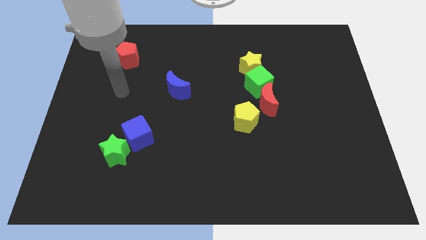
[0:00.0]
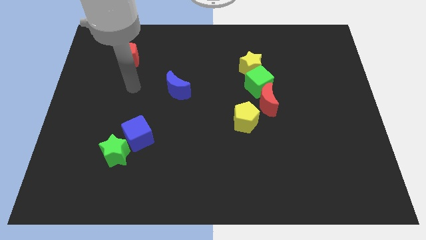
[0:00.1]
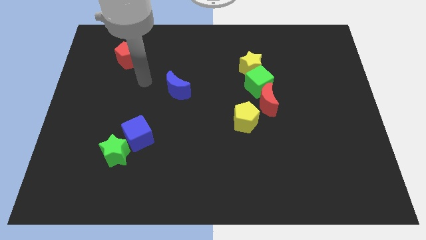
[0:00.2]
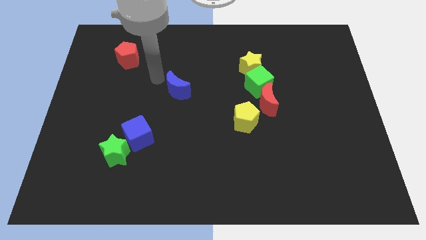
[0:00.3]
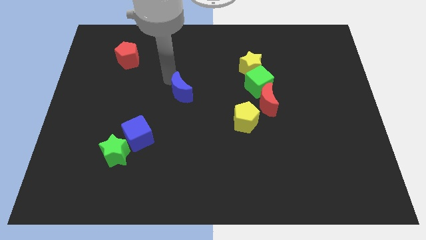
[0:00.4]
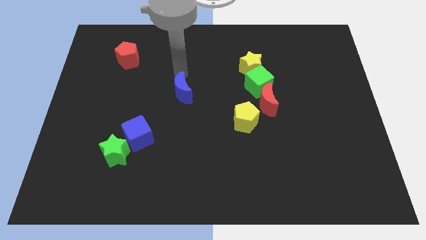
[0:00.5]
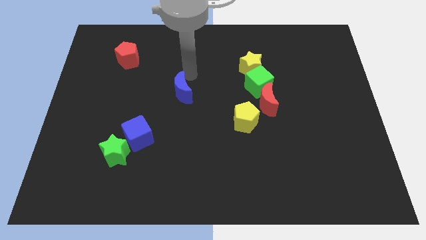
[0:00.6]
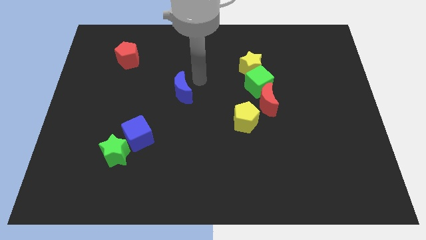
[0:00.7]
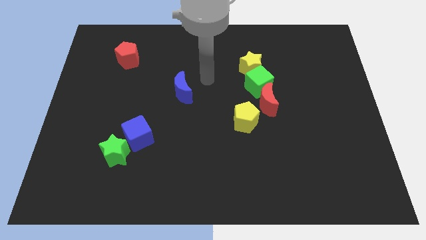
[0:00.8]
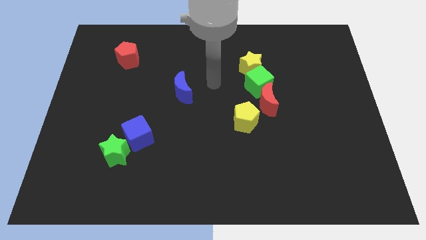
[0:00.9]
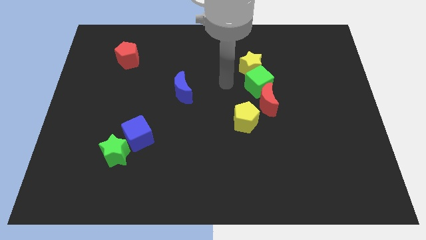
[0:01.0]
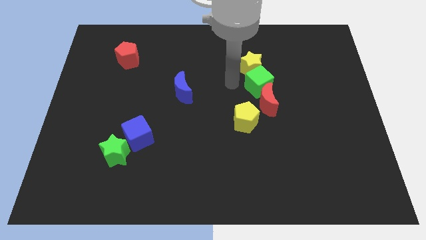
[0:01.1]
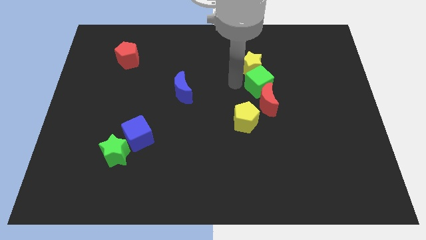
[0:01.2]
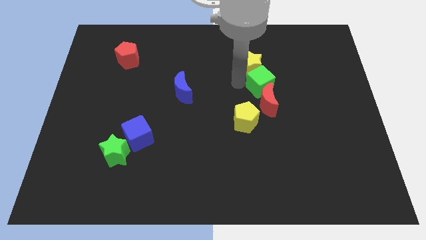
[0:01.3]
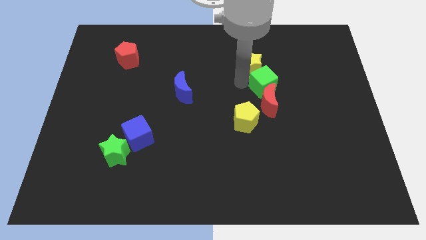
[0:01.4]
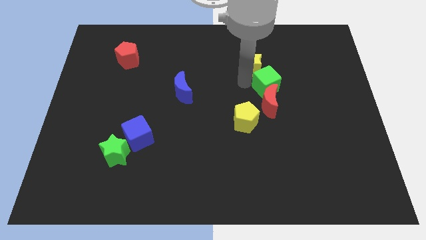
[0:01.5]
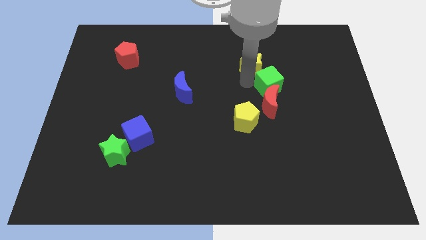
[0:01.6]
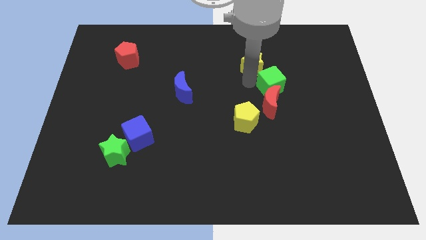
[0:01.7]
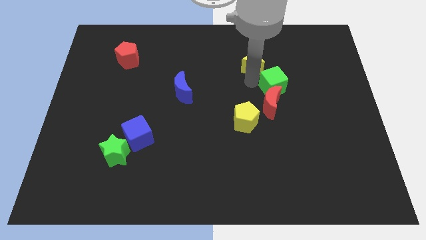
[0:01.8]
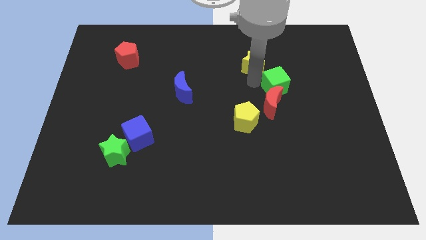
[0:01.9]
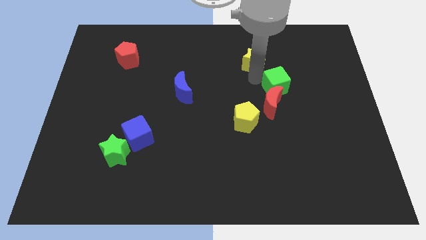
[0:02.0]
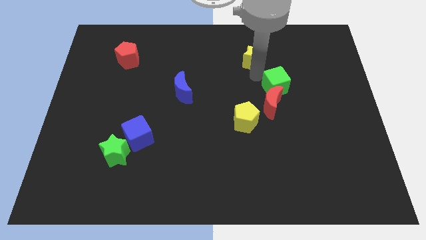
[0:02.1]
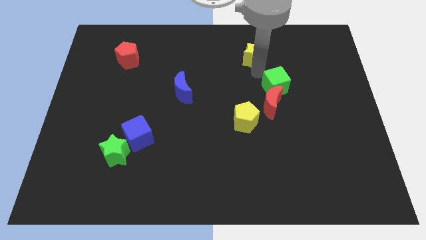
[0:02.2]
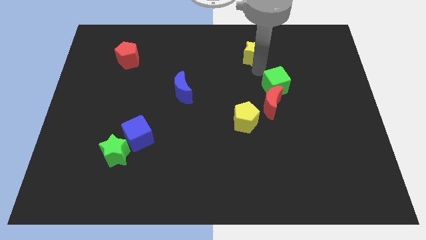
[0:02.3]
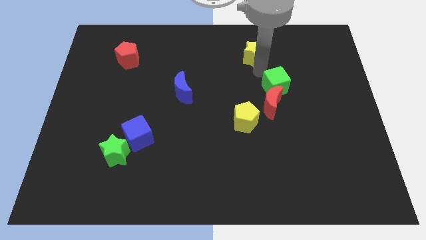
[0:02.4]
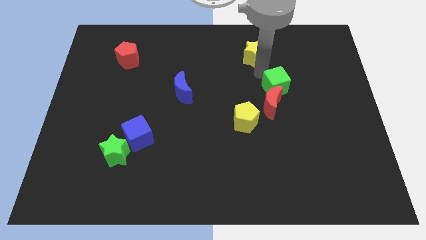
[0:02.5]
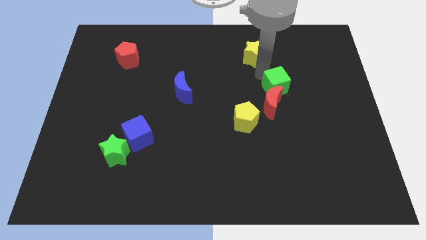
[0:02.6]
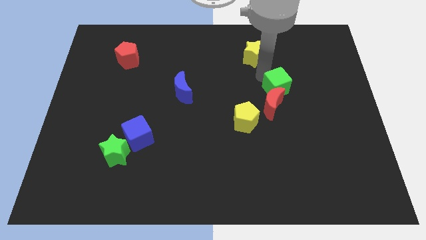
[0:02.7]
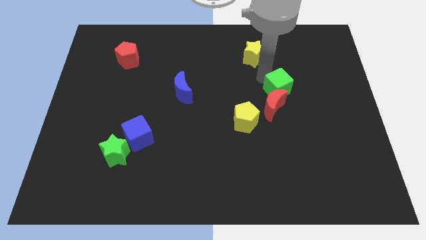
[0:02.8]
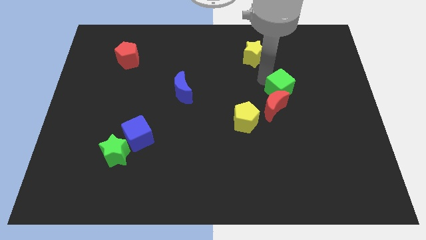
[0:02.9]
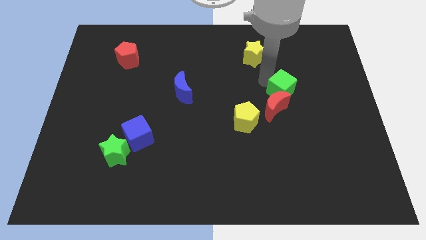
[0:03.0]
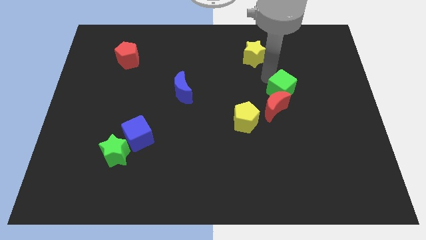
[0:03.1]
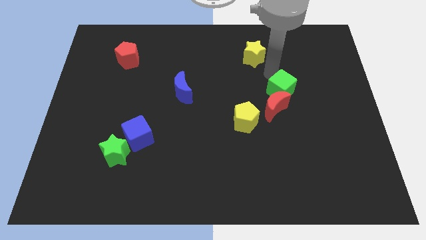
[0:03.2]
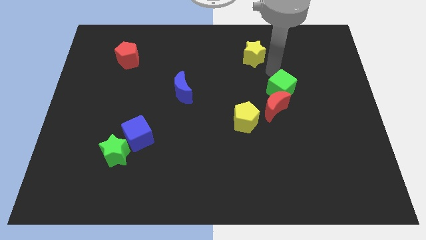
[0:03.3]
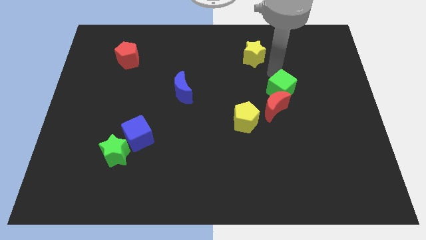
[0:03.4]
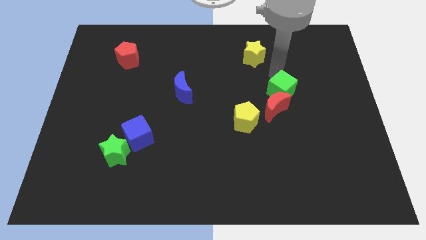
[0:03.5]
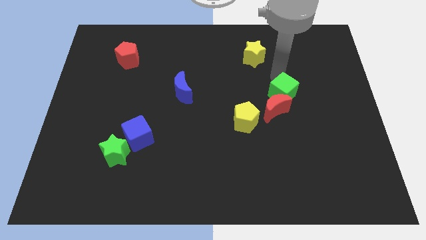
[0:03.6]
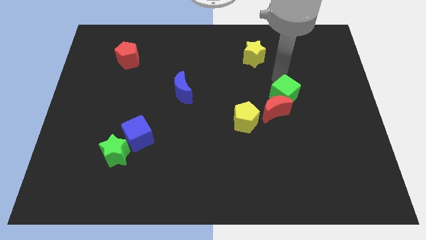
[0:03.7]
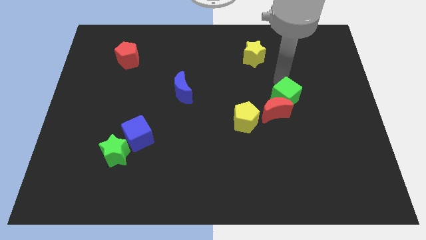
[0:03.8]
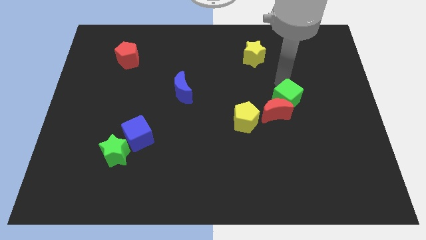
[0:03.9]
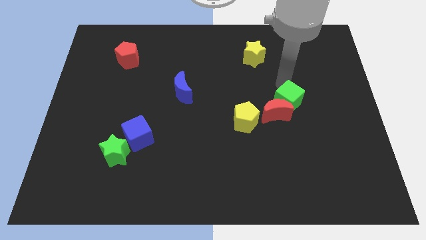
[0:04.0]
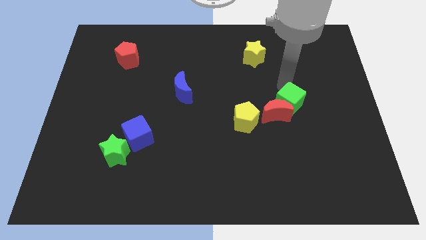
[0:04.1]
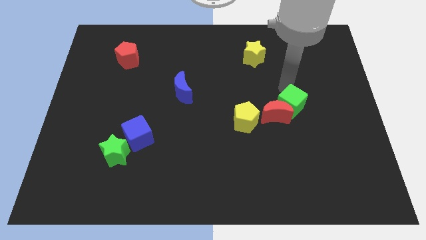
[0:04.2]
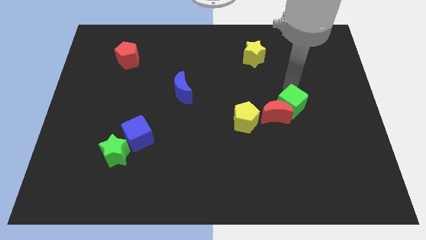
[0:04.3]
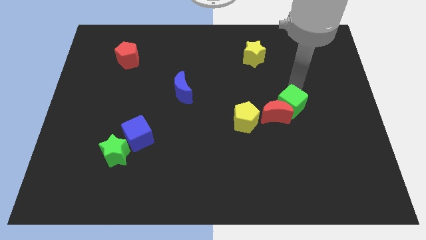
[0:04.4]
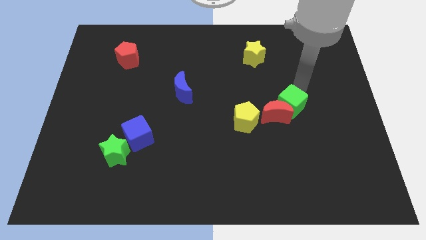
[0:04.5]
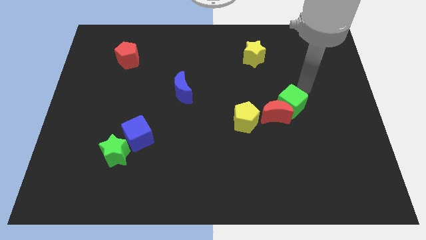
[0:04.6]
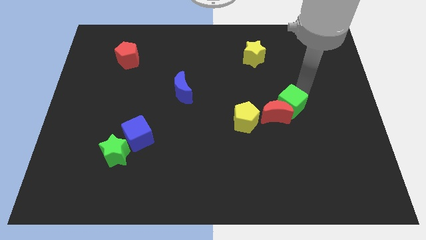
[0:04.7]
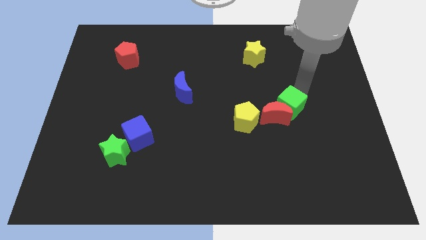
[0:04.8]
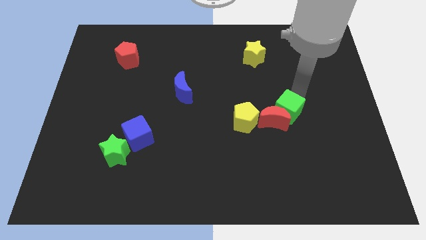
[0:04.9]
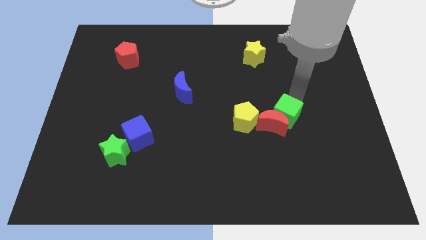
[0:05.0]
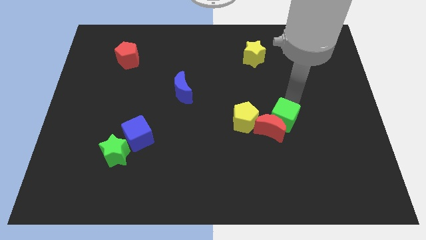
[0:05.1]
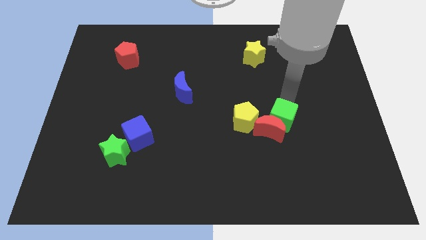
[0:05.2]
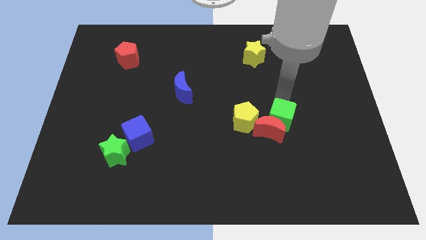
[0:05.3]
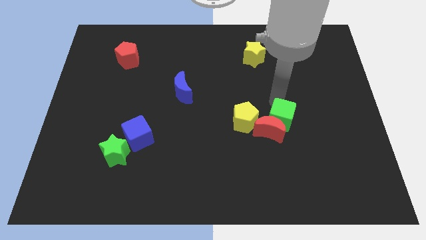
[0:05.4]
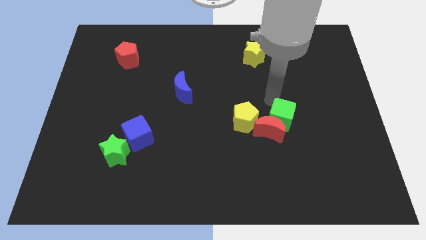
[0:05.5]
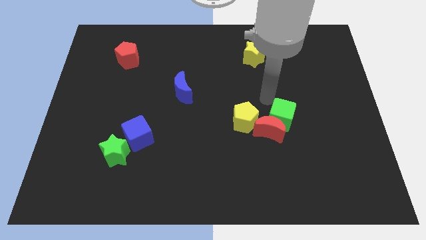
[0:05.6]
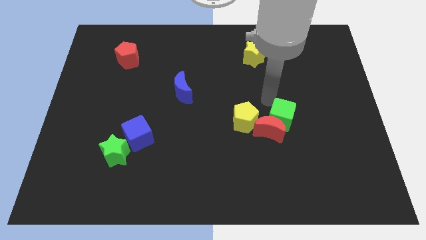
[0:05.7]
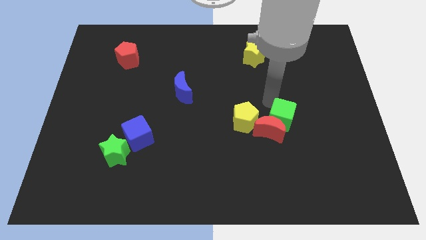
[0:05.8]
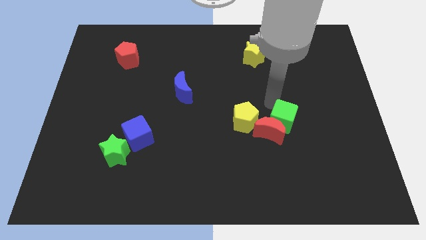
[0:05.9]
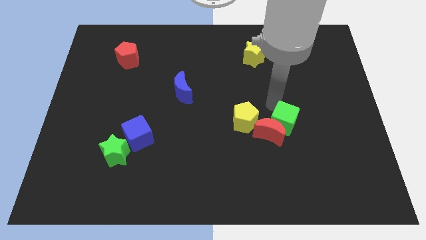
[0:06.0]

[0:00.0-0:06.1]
pull the green cube apart from the red moon and yellow star

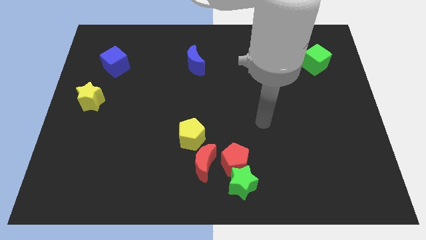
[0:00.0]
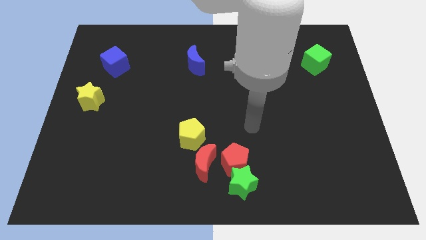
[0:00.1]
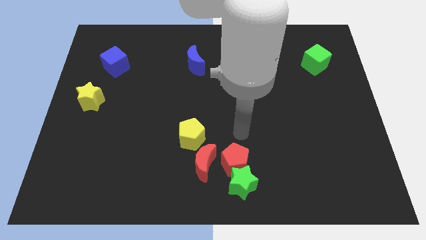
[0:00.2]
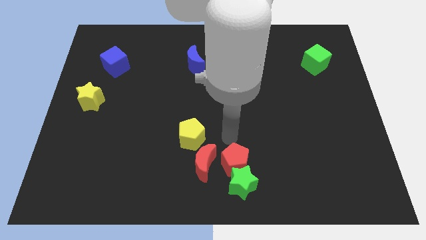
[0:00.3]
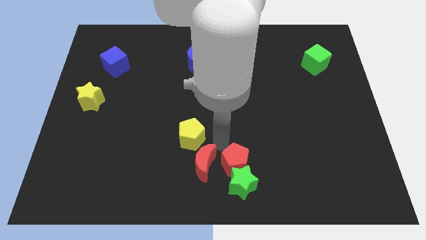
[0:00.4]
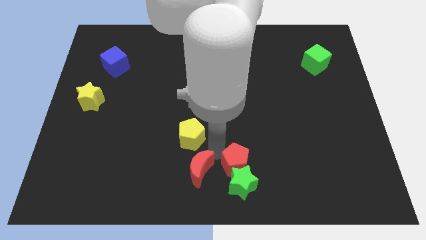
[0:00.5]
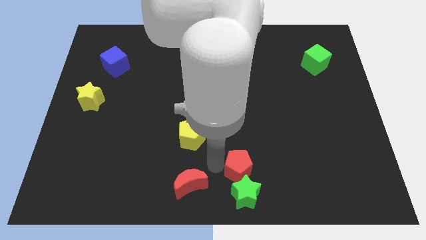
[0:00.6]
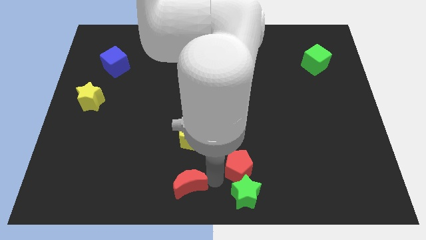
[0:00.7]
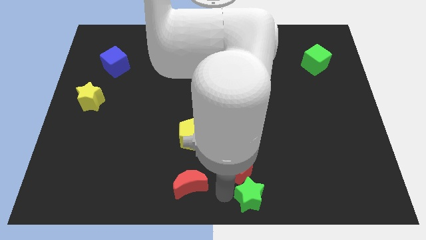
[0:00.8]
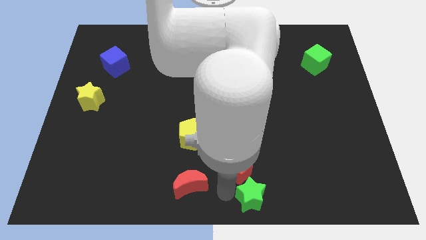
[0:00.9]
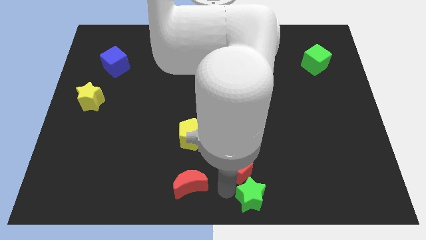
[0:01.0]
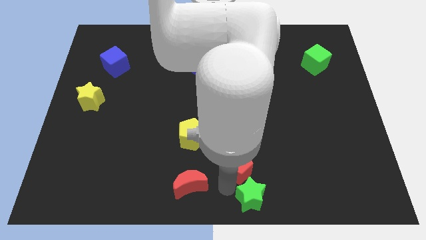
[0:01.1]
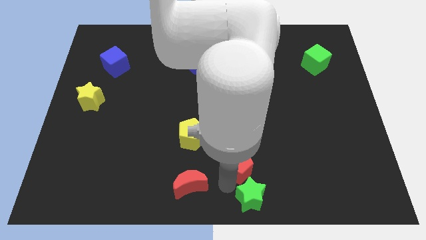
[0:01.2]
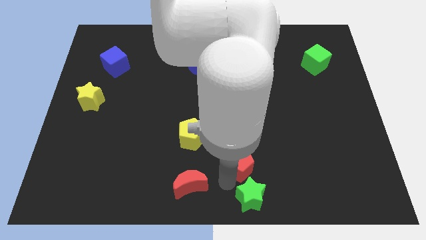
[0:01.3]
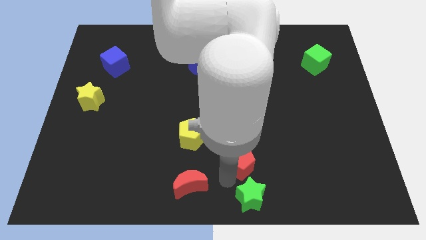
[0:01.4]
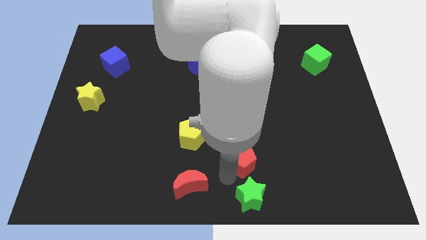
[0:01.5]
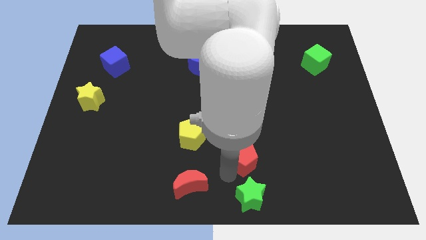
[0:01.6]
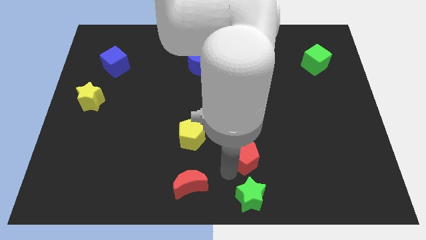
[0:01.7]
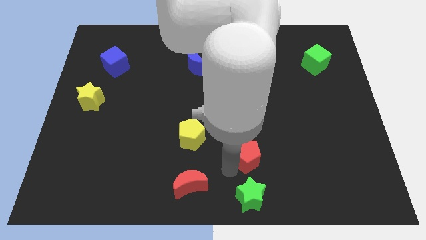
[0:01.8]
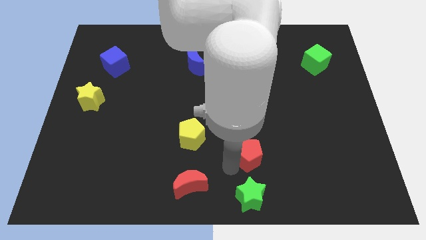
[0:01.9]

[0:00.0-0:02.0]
separate the red pentagon from the green star and red moon

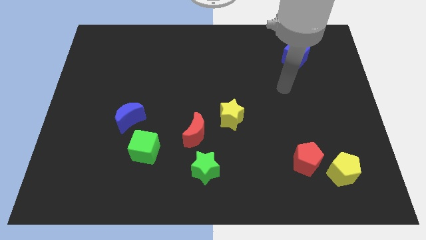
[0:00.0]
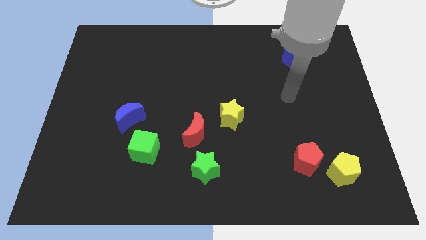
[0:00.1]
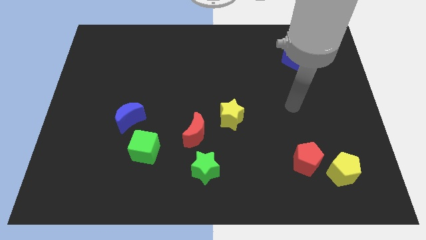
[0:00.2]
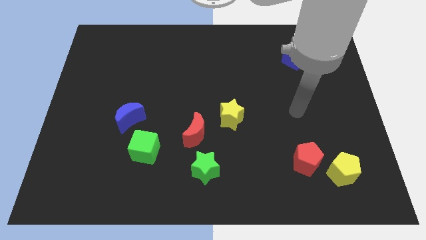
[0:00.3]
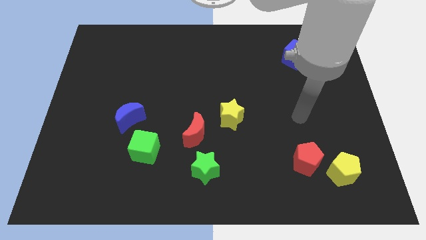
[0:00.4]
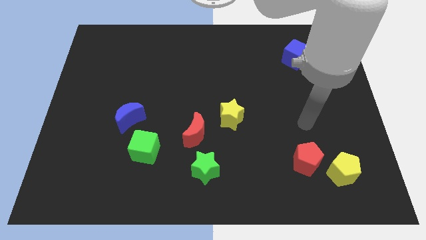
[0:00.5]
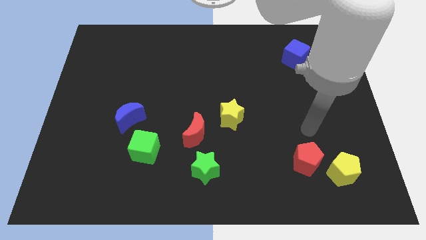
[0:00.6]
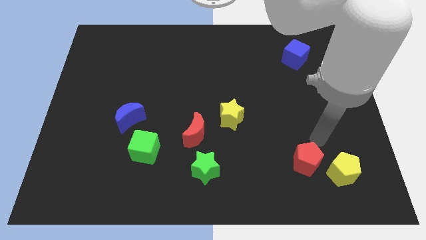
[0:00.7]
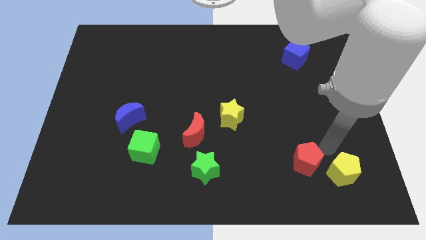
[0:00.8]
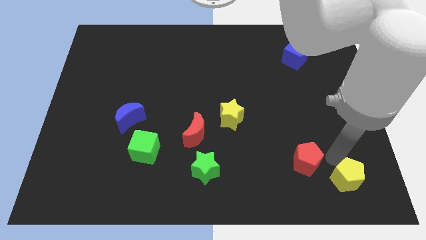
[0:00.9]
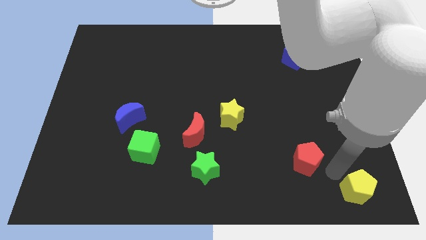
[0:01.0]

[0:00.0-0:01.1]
move the red pentagon away from the yellow pentagon

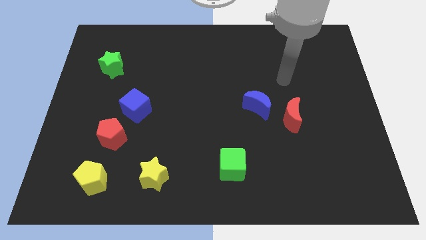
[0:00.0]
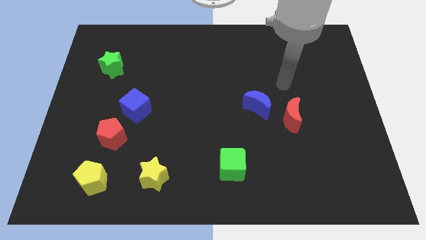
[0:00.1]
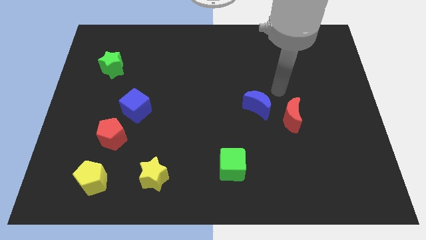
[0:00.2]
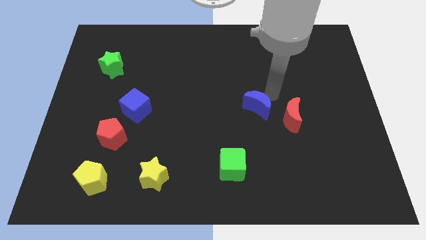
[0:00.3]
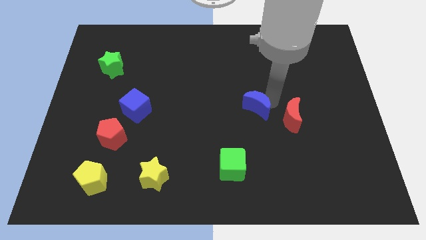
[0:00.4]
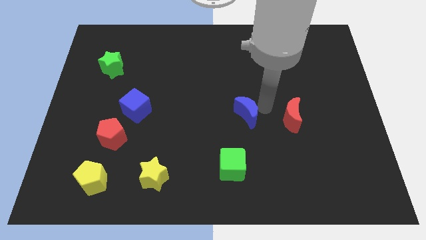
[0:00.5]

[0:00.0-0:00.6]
separate the red moon from the blue moon
